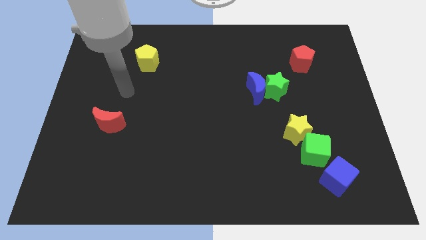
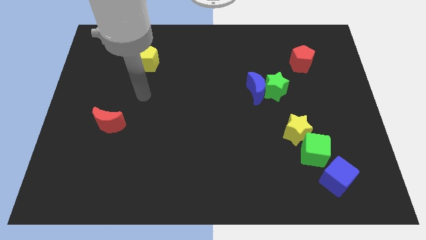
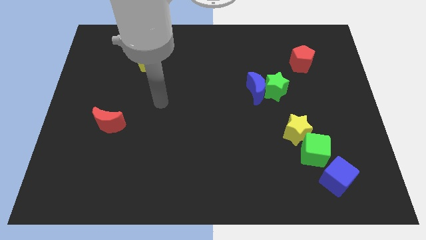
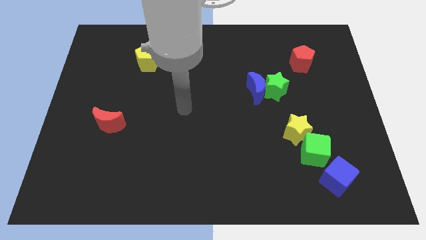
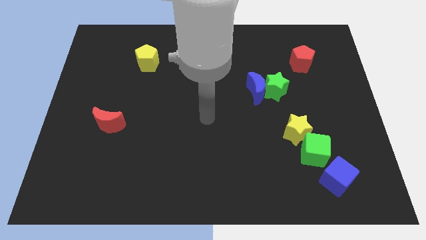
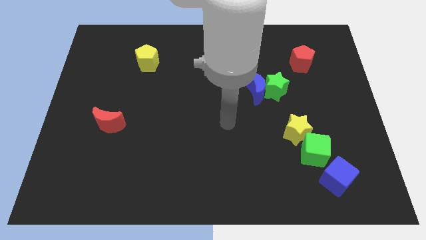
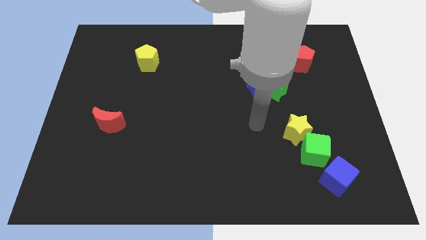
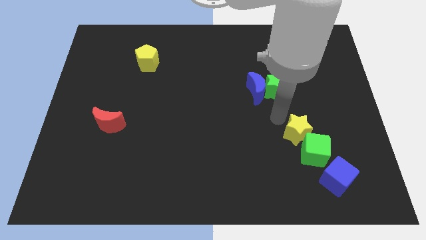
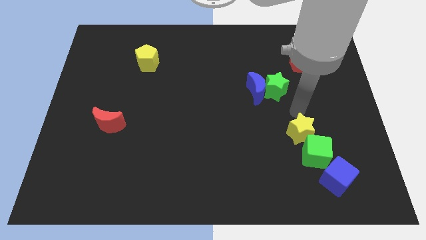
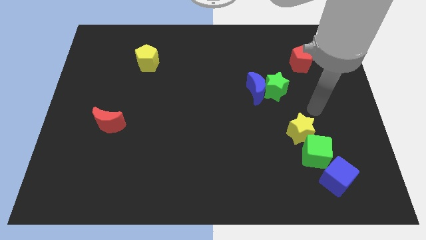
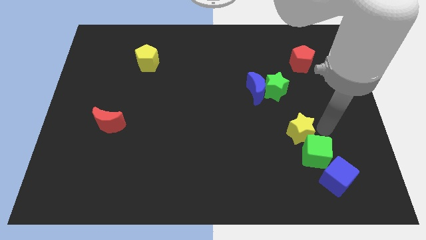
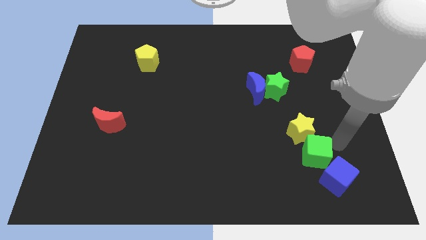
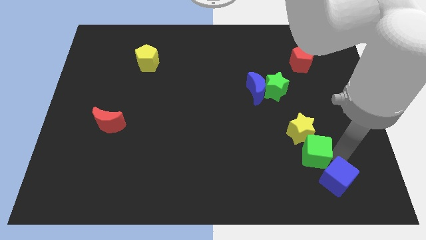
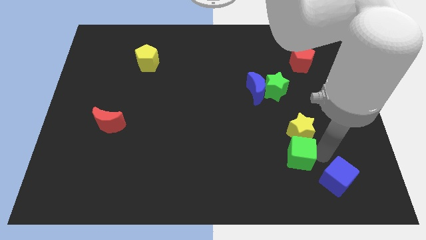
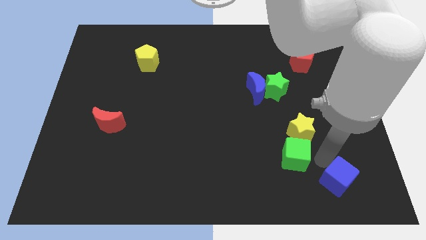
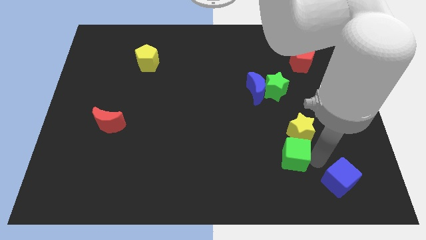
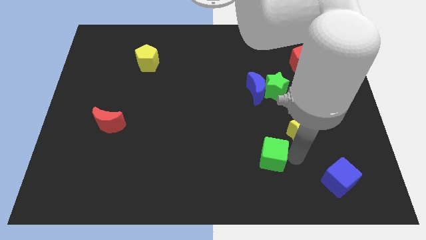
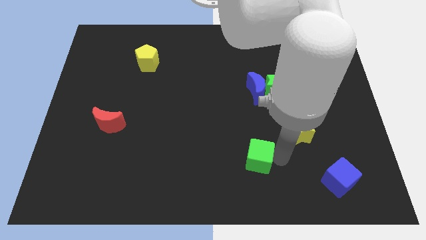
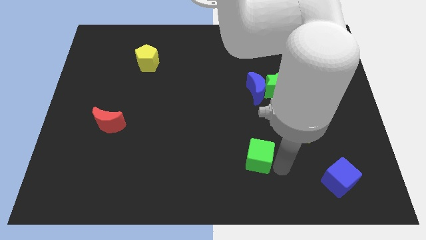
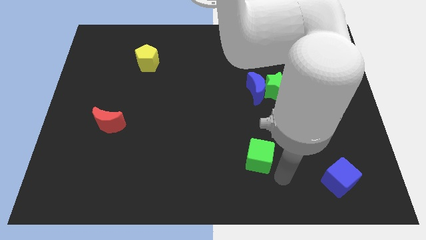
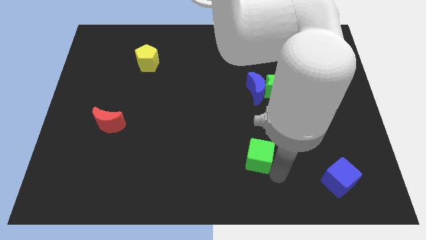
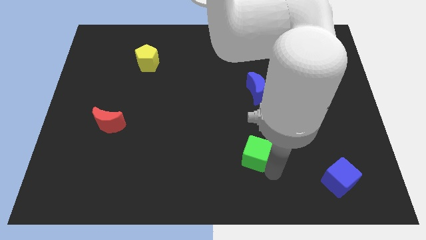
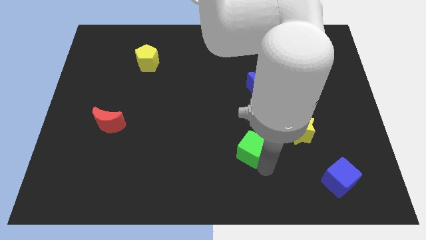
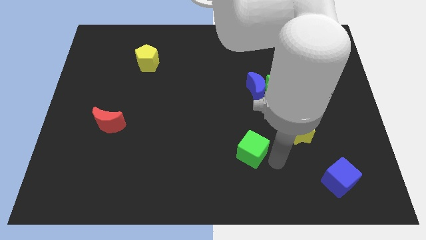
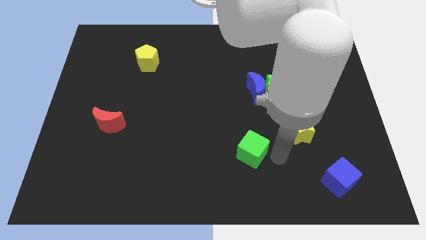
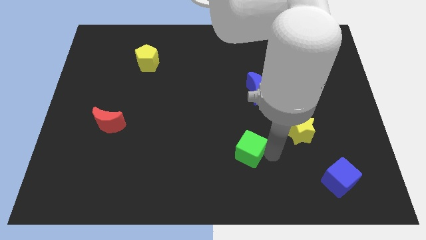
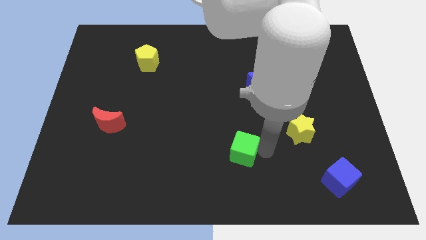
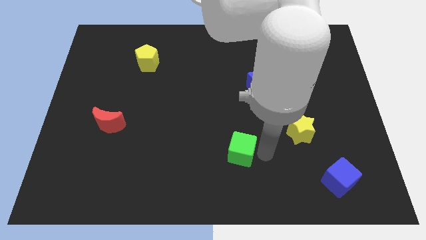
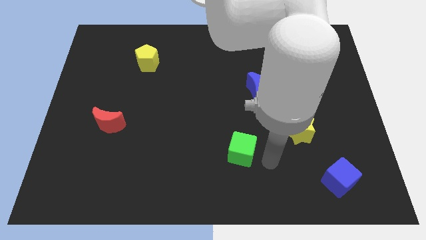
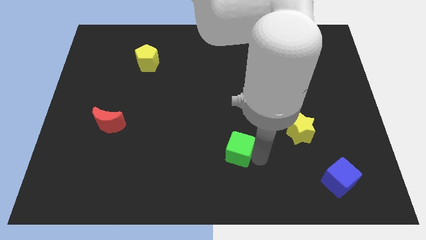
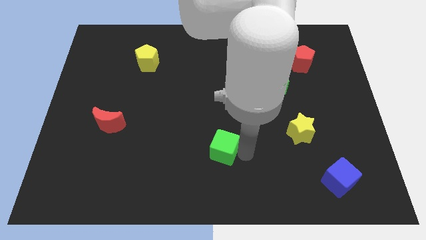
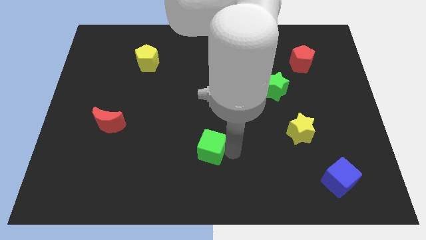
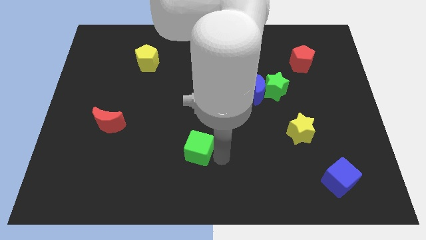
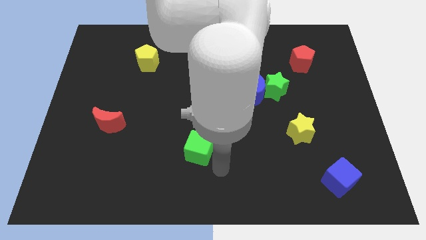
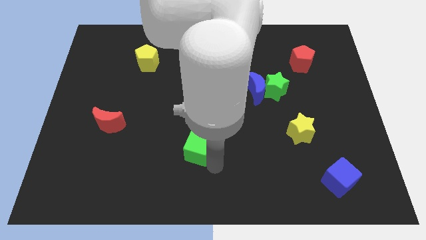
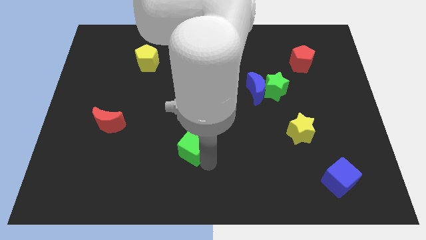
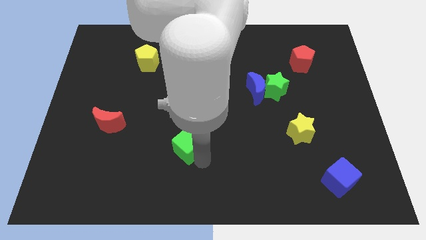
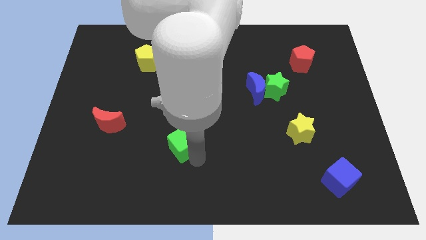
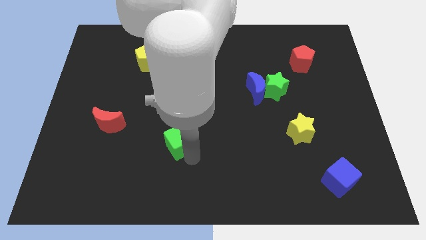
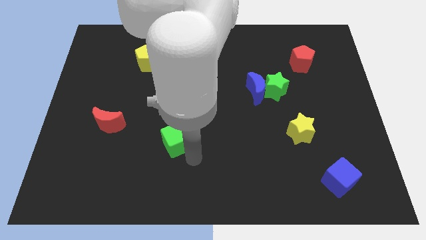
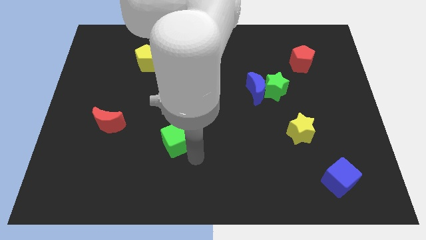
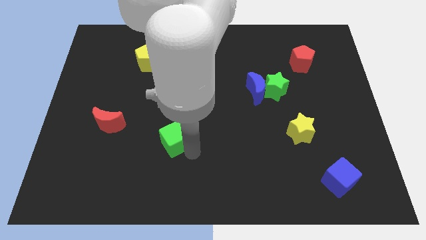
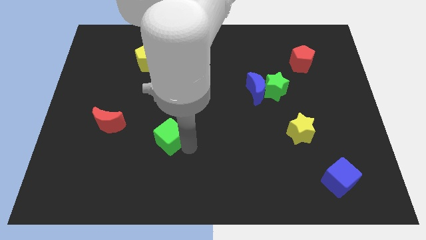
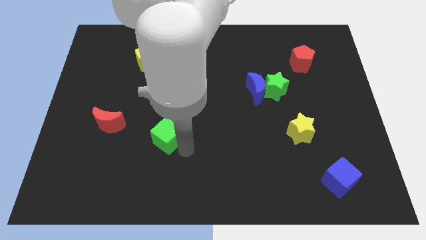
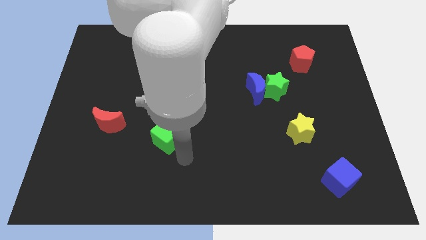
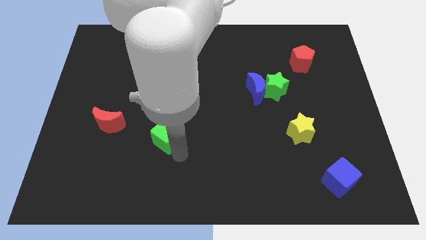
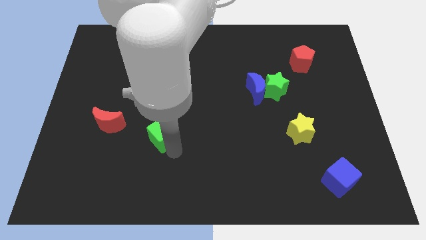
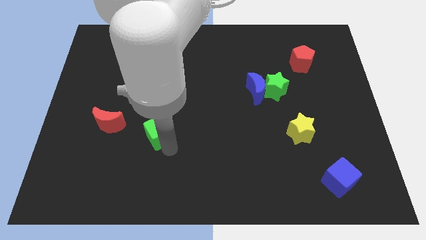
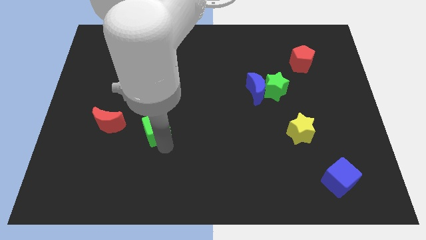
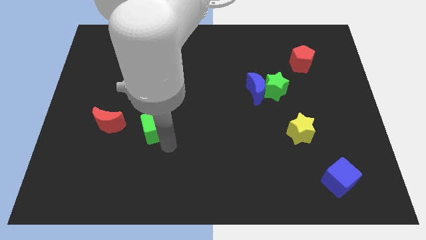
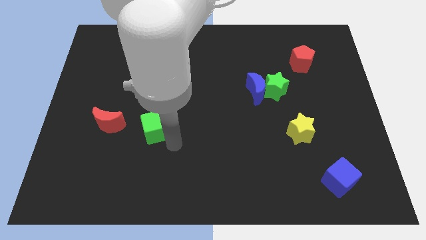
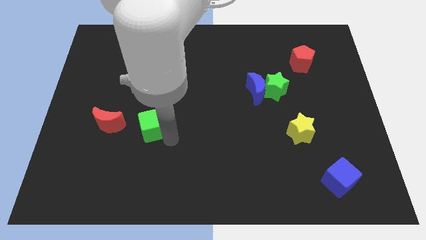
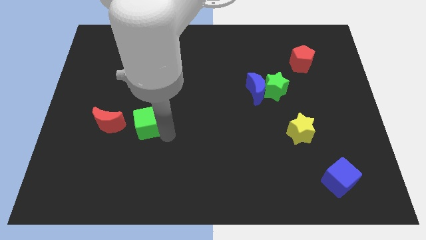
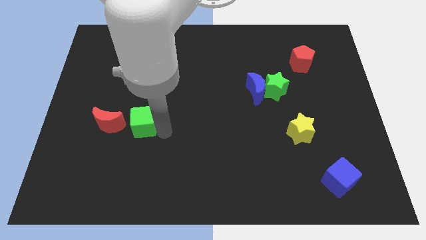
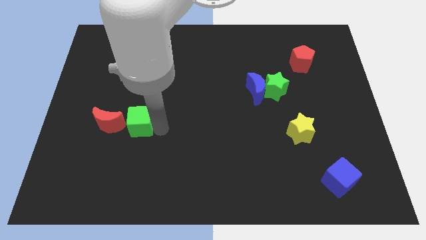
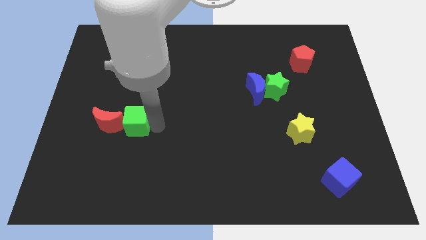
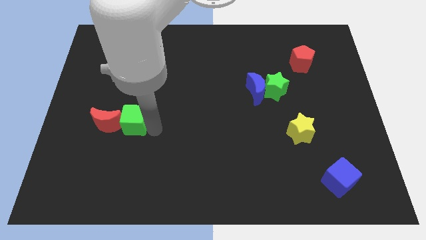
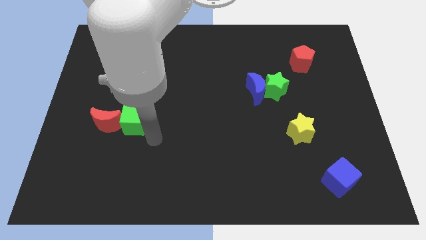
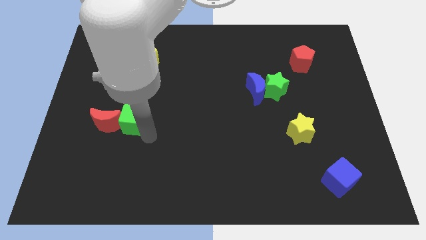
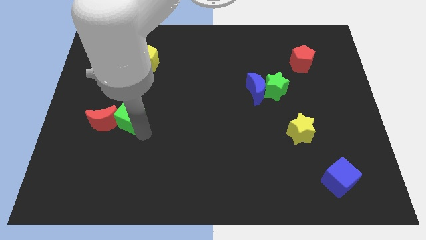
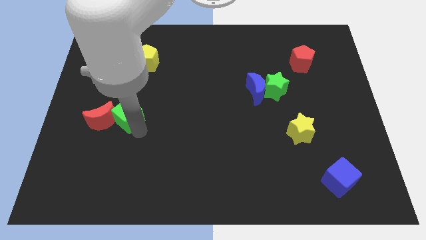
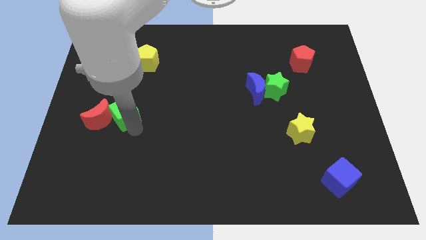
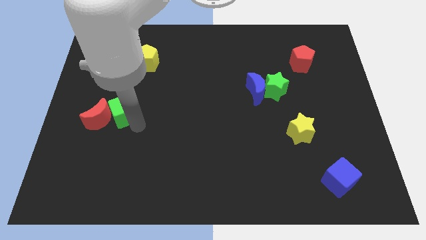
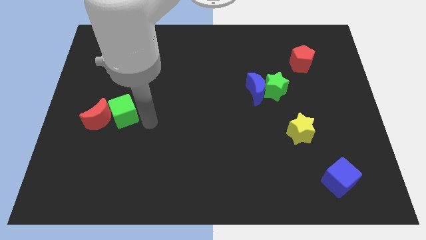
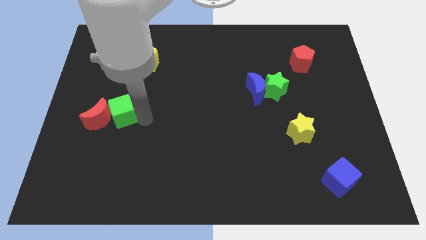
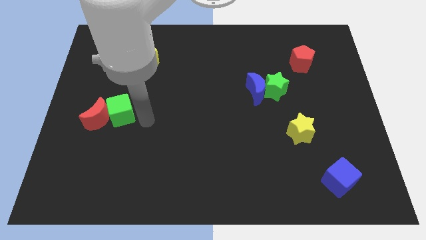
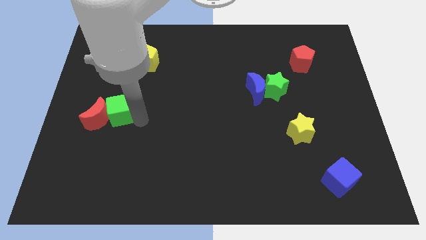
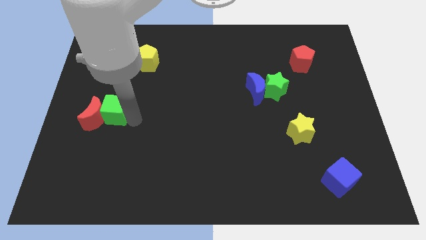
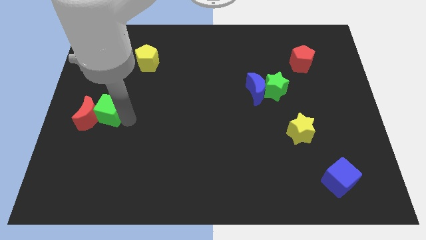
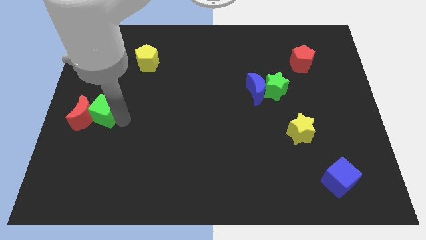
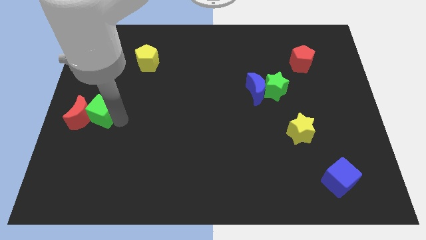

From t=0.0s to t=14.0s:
slide the green cube to the left side
